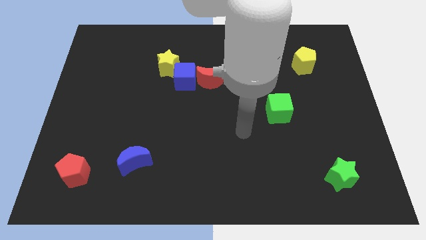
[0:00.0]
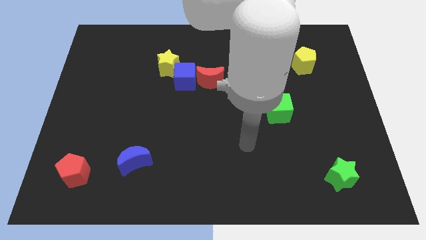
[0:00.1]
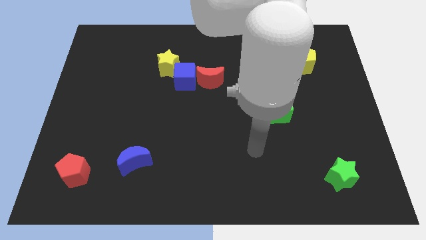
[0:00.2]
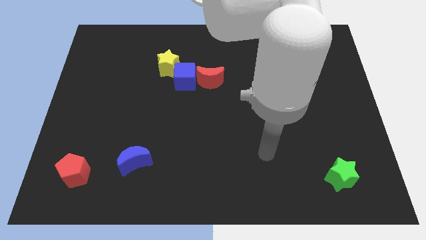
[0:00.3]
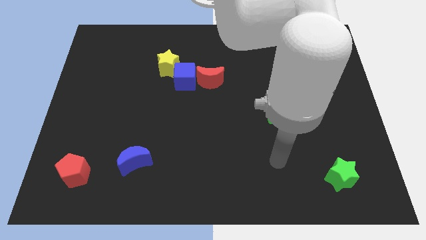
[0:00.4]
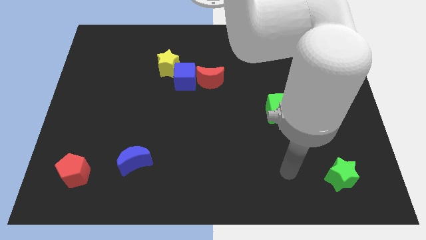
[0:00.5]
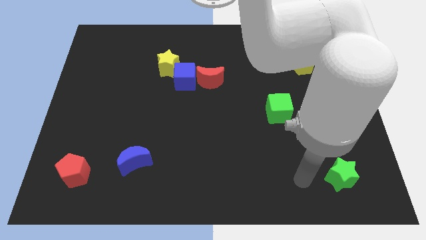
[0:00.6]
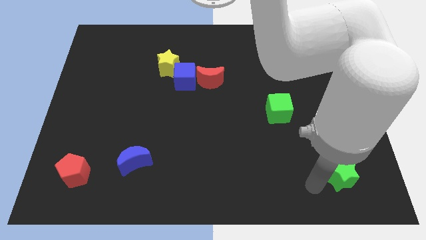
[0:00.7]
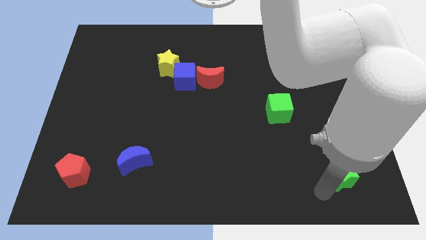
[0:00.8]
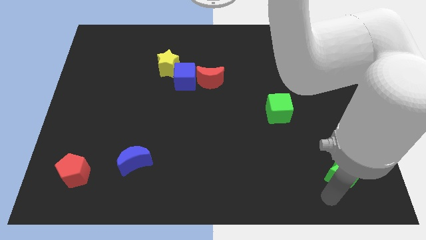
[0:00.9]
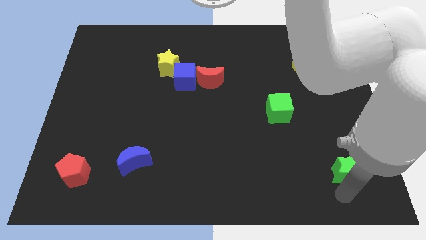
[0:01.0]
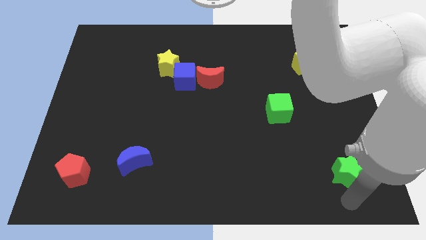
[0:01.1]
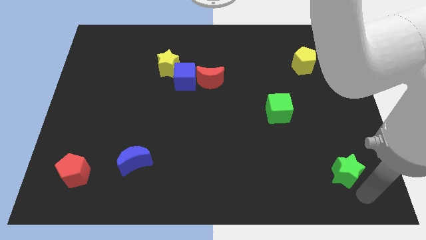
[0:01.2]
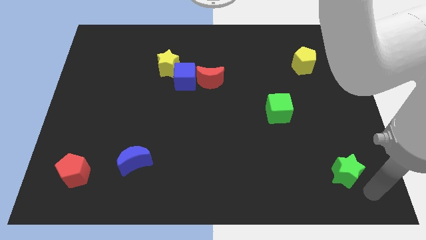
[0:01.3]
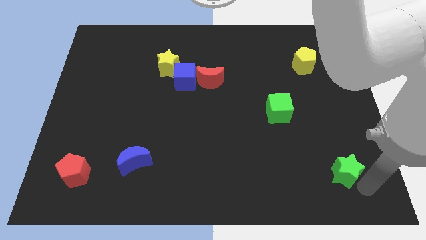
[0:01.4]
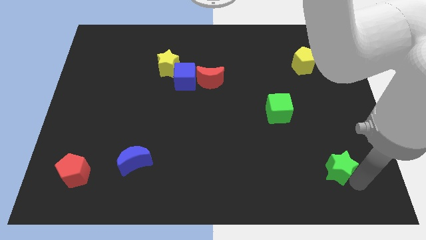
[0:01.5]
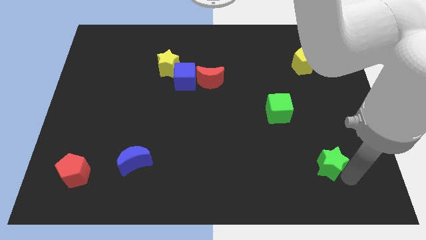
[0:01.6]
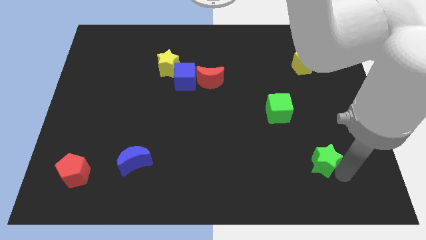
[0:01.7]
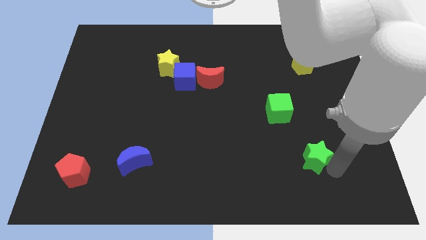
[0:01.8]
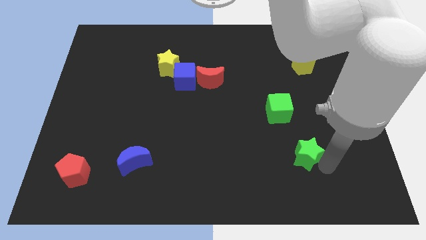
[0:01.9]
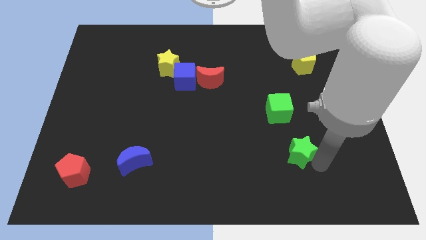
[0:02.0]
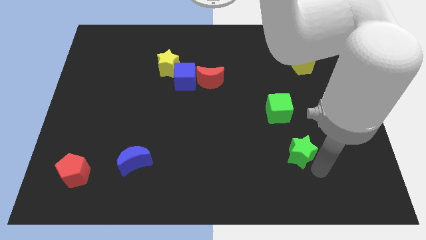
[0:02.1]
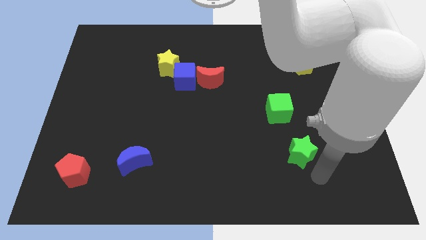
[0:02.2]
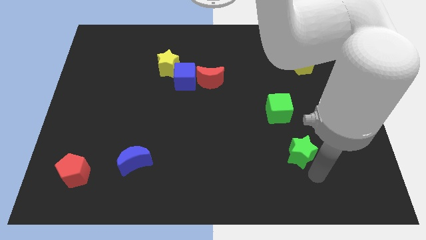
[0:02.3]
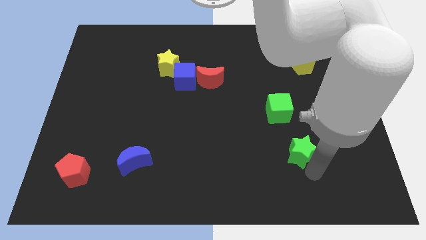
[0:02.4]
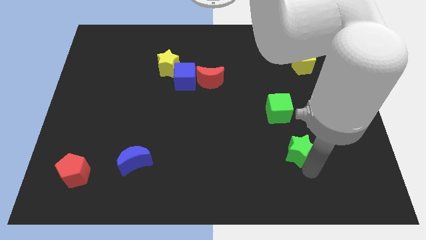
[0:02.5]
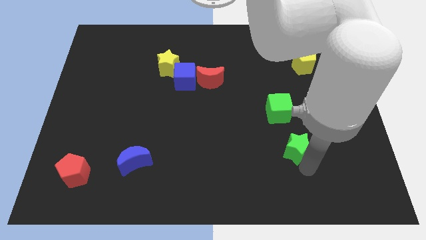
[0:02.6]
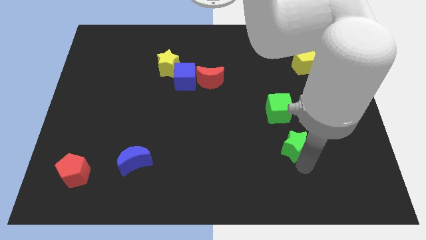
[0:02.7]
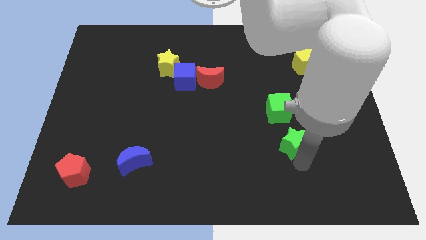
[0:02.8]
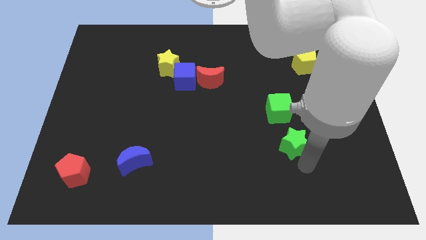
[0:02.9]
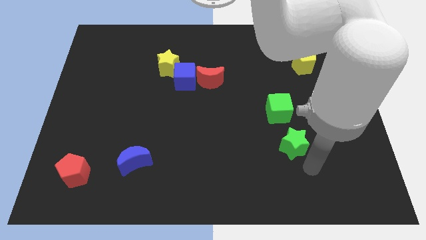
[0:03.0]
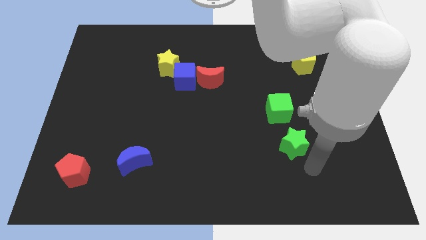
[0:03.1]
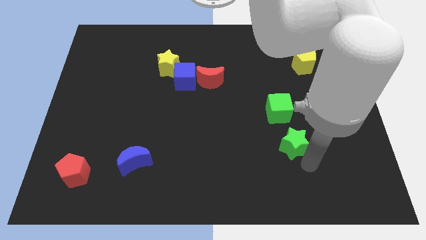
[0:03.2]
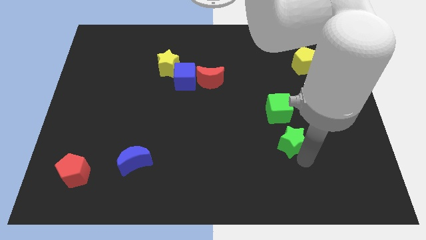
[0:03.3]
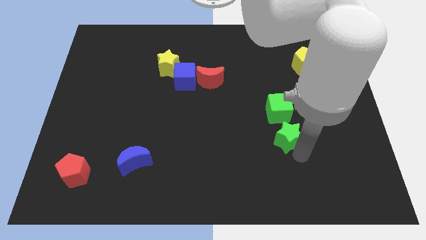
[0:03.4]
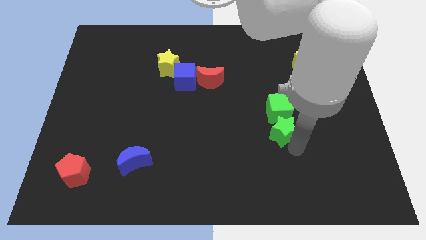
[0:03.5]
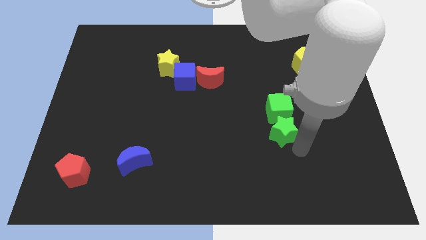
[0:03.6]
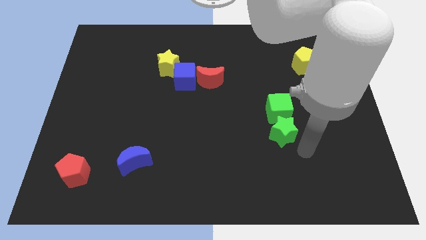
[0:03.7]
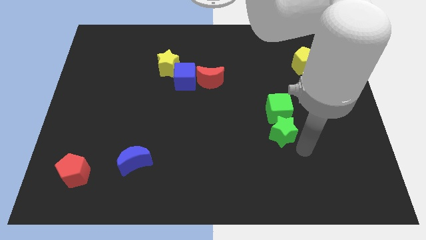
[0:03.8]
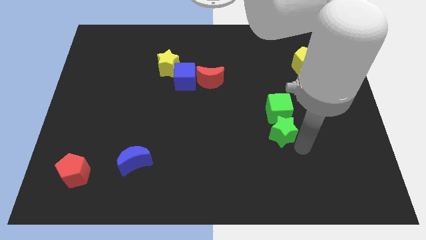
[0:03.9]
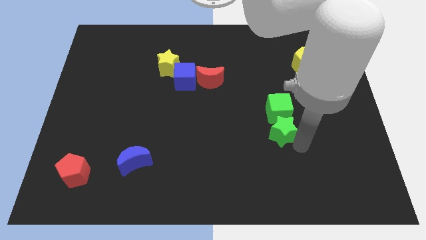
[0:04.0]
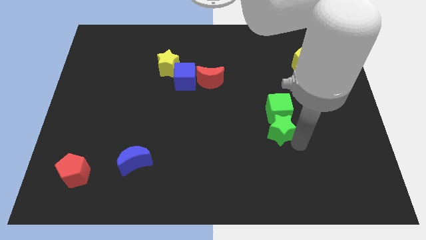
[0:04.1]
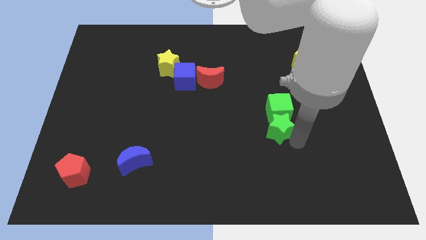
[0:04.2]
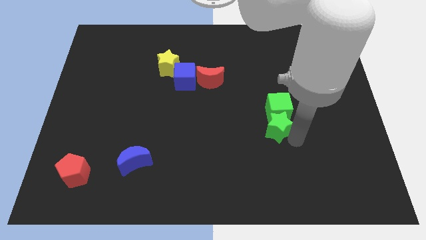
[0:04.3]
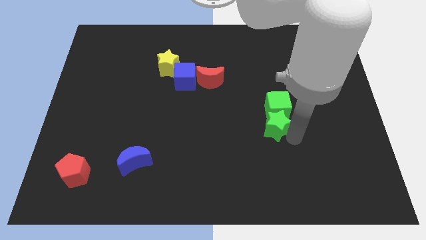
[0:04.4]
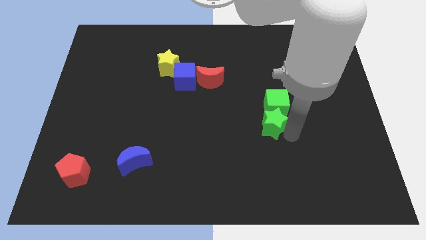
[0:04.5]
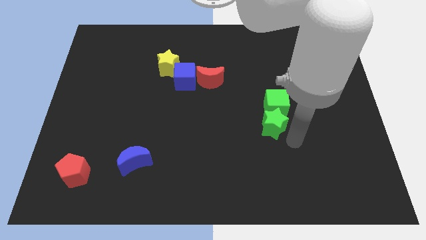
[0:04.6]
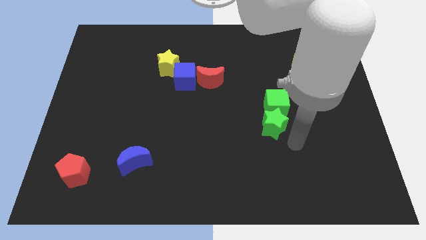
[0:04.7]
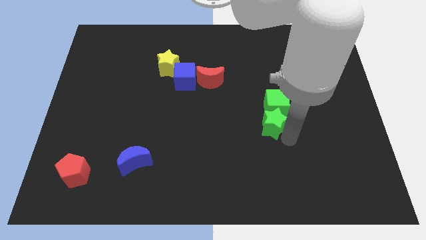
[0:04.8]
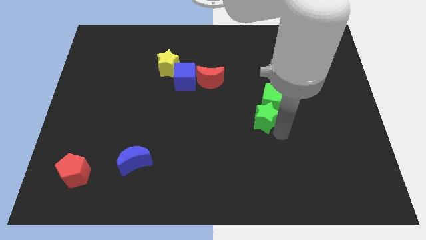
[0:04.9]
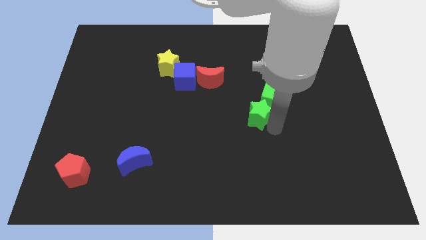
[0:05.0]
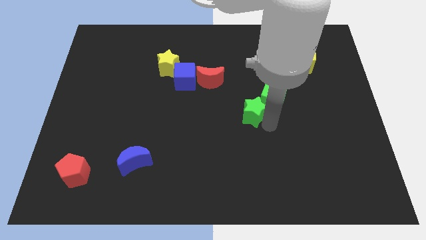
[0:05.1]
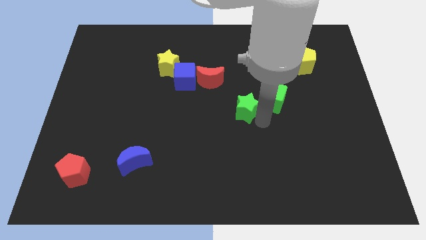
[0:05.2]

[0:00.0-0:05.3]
put the green star to the bottom right of the red moon

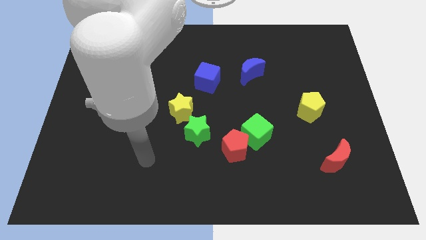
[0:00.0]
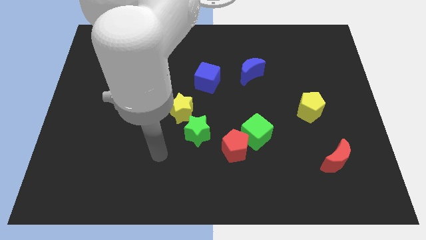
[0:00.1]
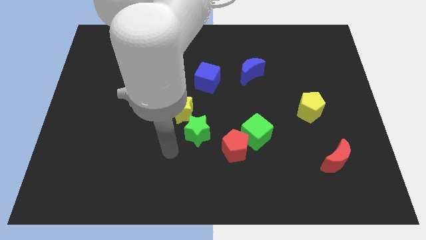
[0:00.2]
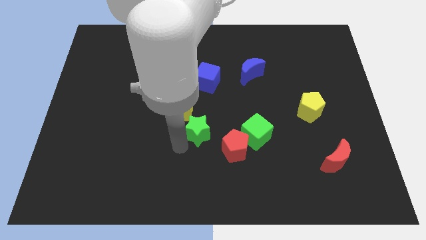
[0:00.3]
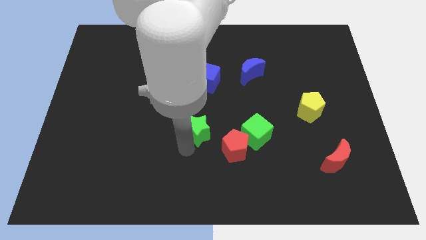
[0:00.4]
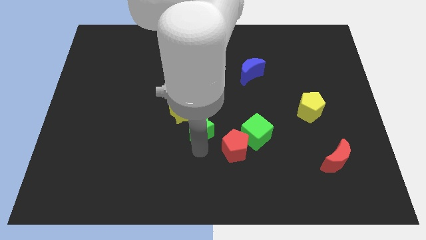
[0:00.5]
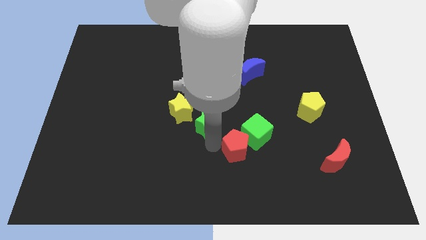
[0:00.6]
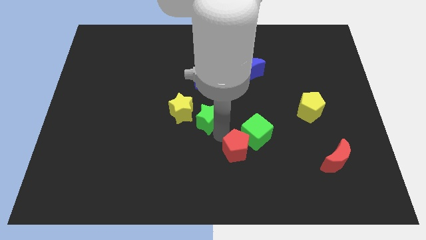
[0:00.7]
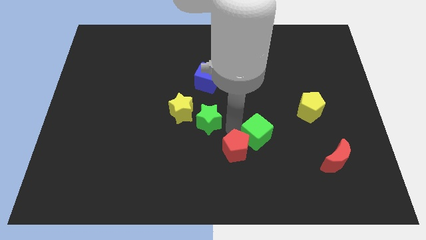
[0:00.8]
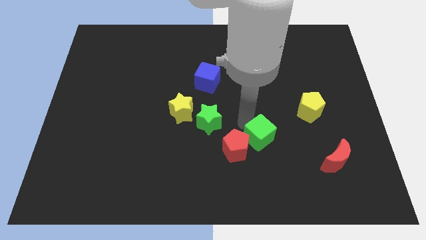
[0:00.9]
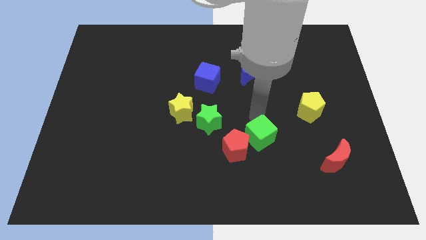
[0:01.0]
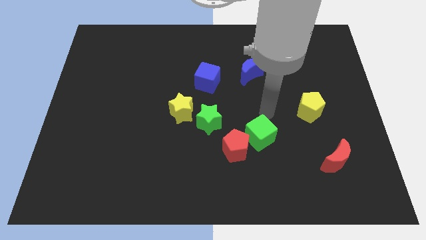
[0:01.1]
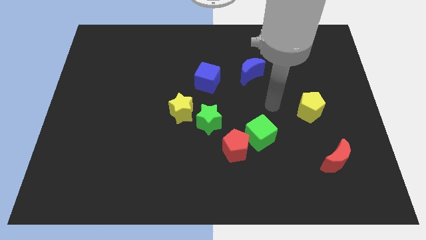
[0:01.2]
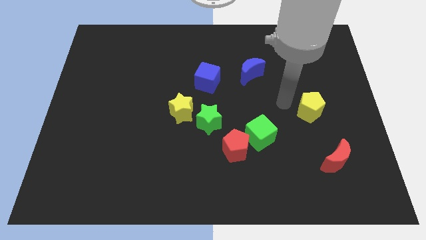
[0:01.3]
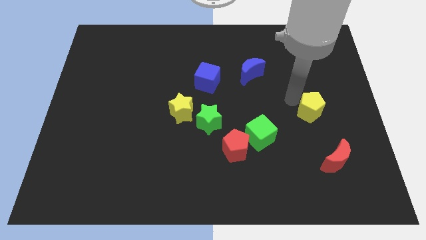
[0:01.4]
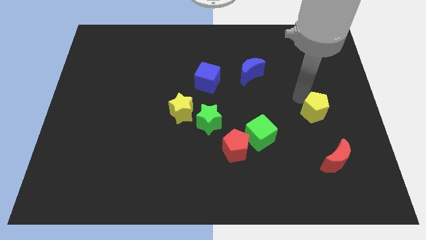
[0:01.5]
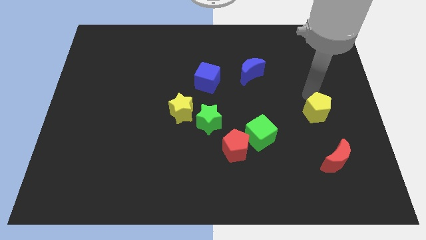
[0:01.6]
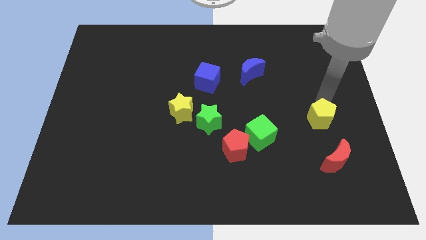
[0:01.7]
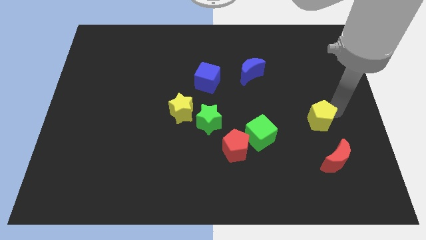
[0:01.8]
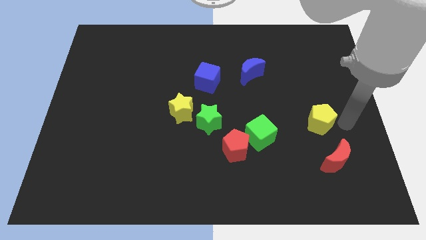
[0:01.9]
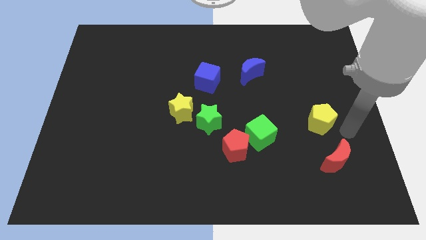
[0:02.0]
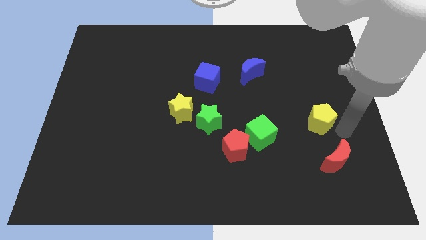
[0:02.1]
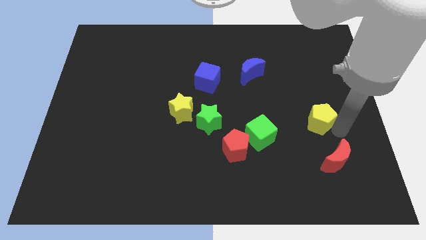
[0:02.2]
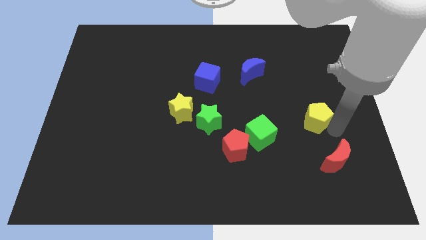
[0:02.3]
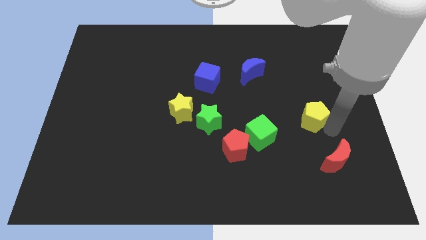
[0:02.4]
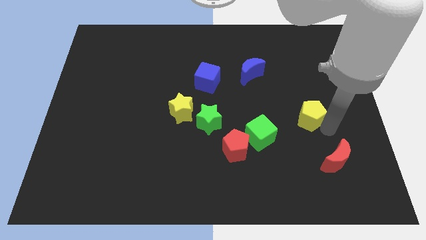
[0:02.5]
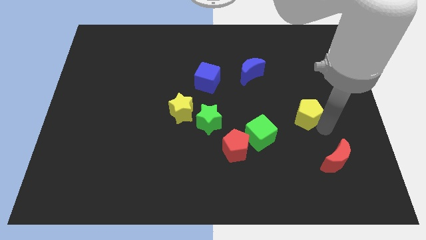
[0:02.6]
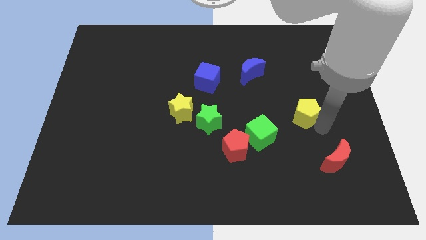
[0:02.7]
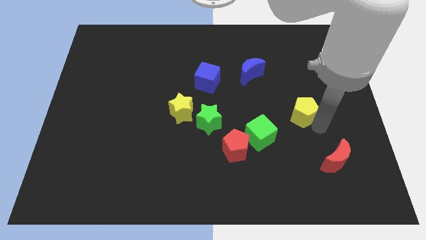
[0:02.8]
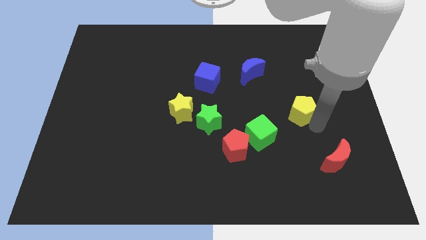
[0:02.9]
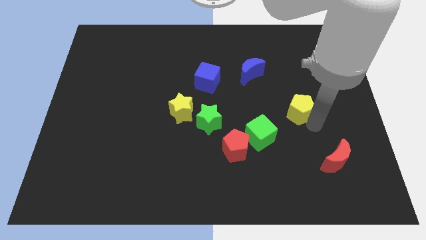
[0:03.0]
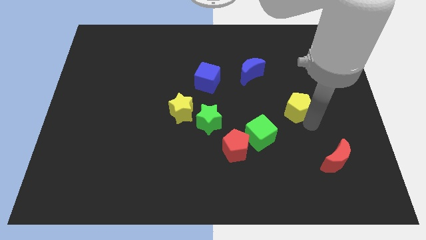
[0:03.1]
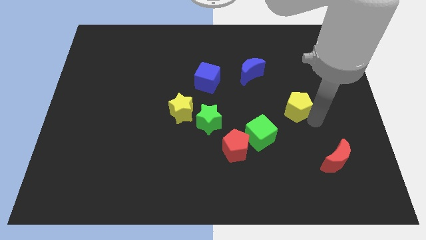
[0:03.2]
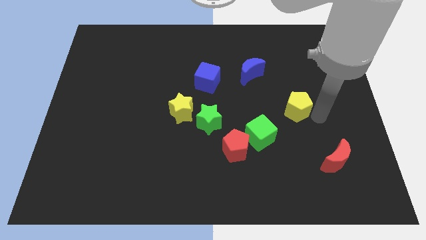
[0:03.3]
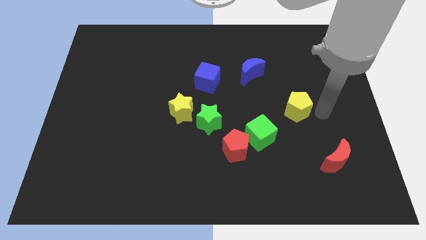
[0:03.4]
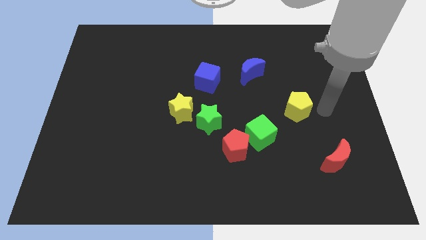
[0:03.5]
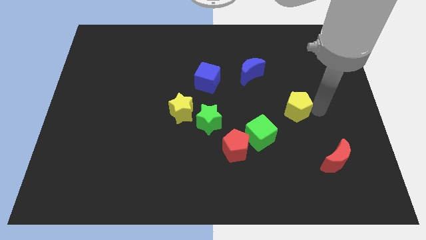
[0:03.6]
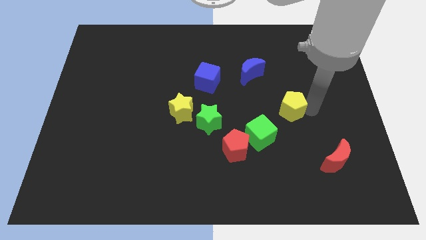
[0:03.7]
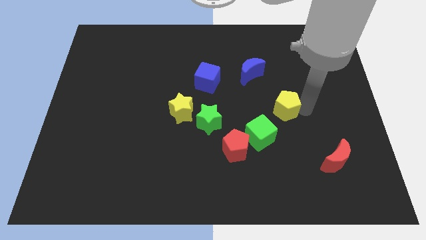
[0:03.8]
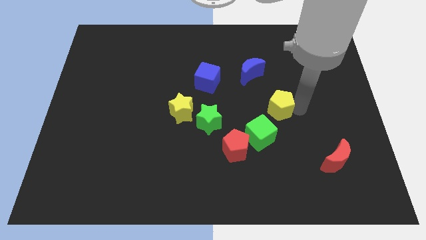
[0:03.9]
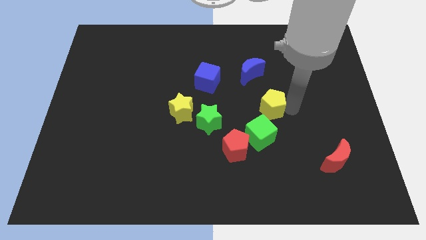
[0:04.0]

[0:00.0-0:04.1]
move the yellow pentagon to the bottom of the blue moon
